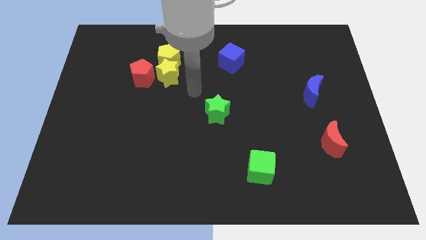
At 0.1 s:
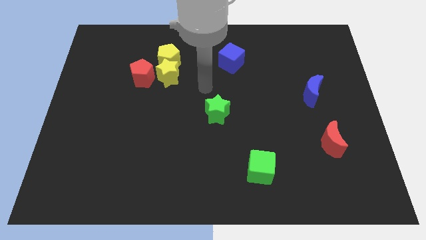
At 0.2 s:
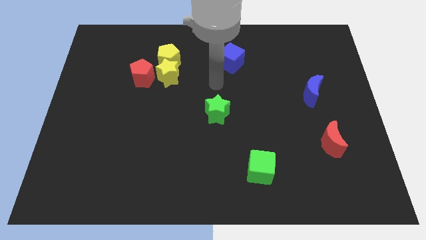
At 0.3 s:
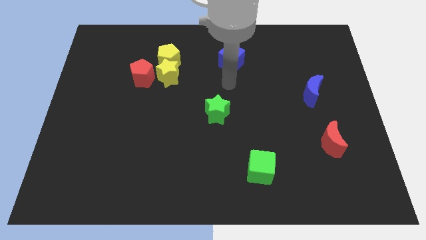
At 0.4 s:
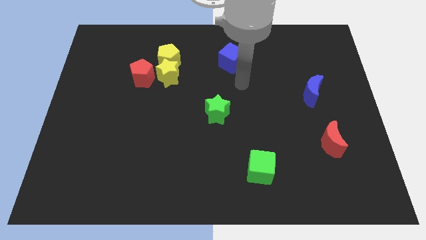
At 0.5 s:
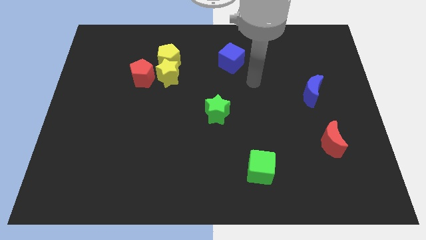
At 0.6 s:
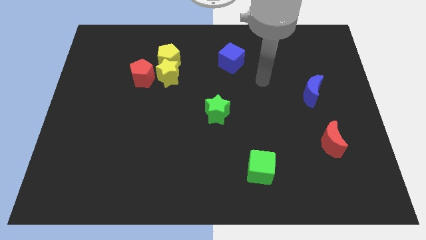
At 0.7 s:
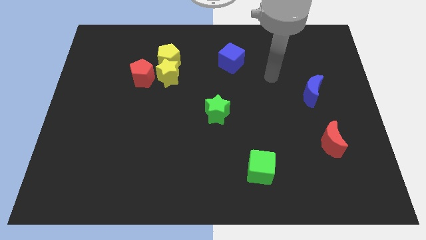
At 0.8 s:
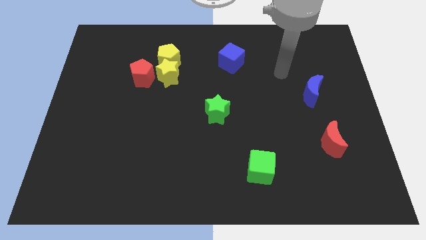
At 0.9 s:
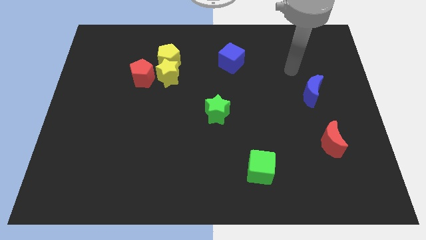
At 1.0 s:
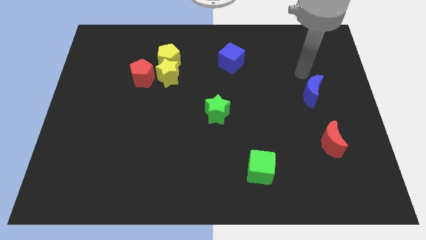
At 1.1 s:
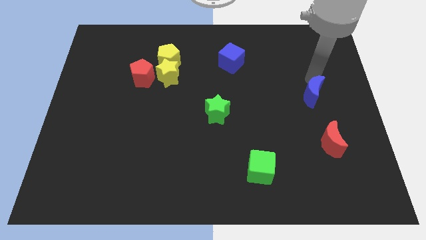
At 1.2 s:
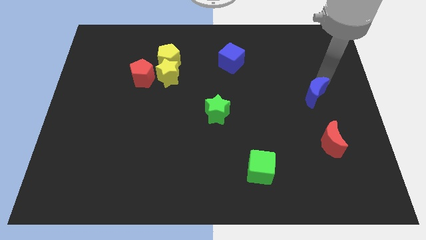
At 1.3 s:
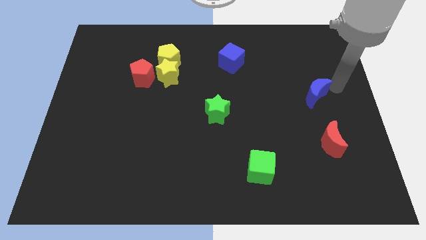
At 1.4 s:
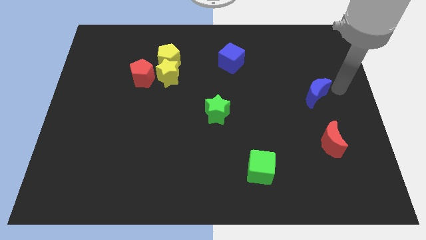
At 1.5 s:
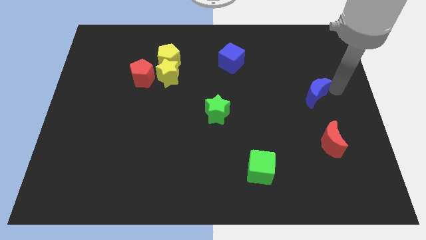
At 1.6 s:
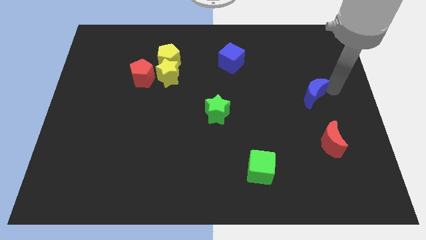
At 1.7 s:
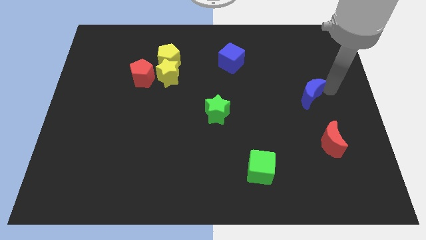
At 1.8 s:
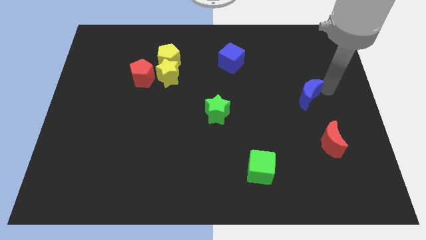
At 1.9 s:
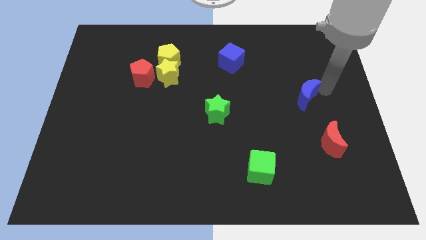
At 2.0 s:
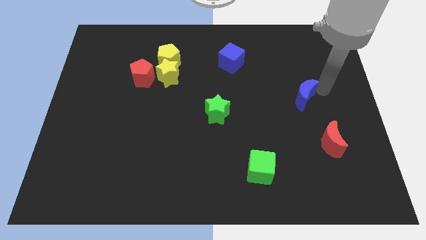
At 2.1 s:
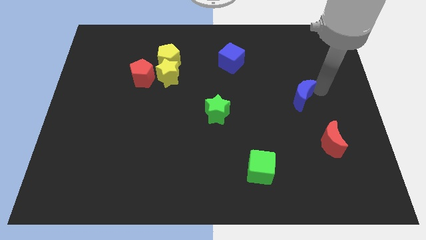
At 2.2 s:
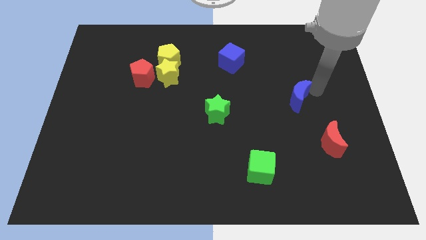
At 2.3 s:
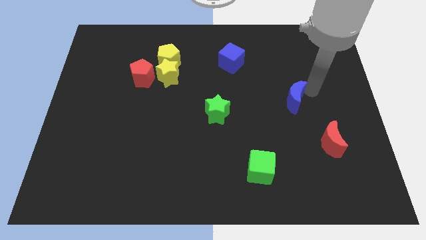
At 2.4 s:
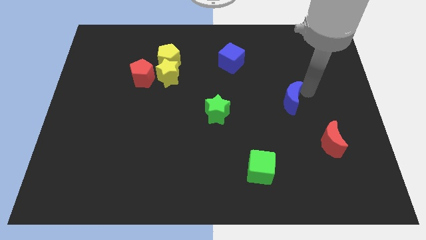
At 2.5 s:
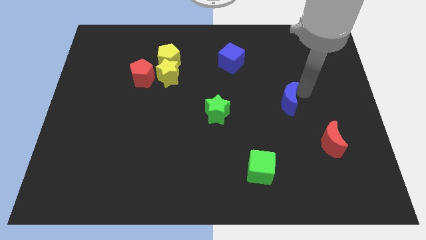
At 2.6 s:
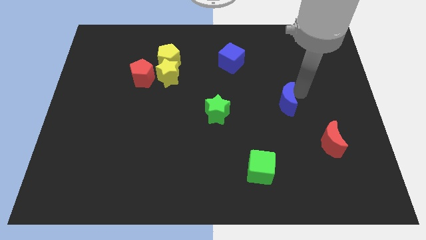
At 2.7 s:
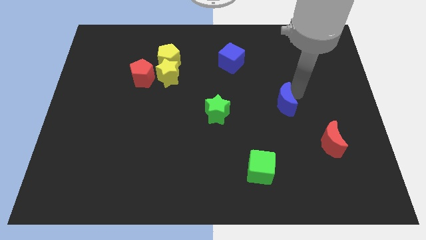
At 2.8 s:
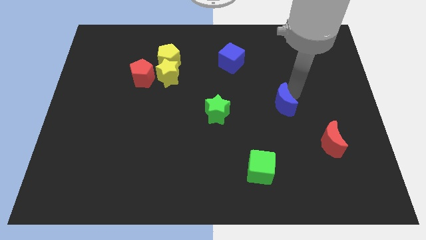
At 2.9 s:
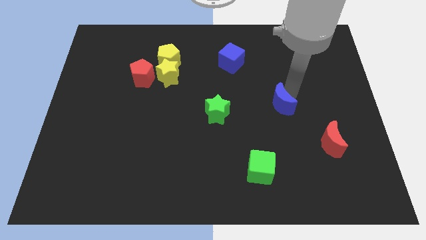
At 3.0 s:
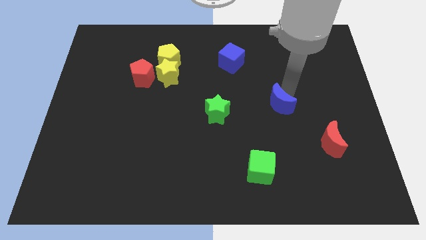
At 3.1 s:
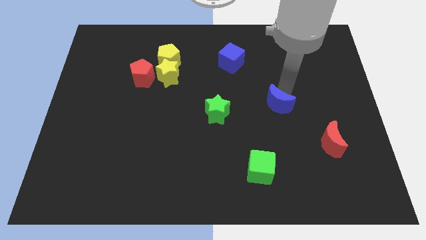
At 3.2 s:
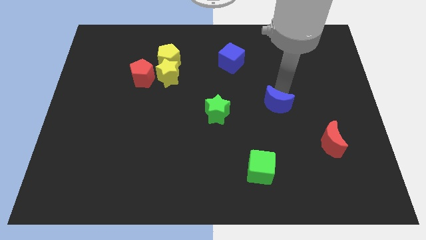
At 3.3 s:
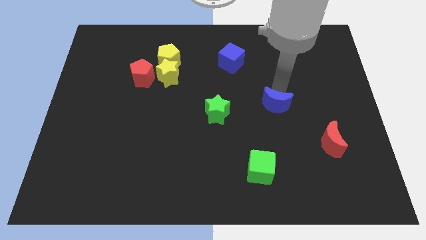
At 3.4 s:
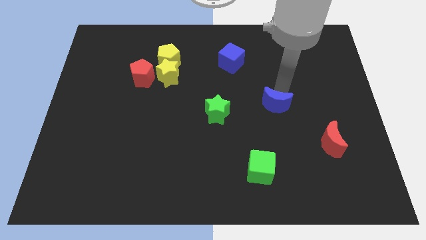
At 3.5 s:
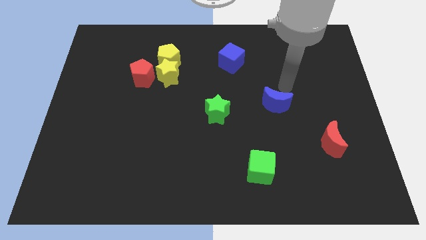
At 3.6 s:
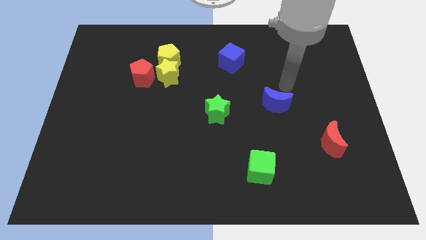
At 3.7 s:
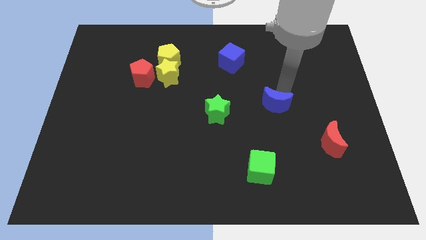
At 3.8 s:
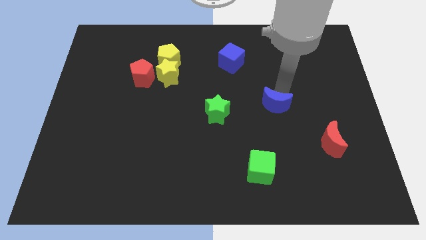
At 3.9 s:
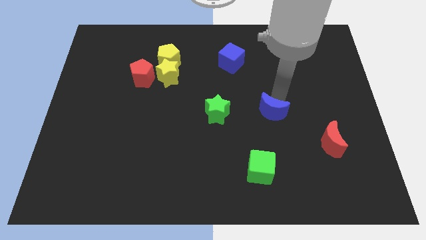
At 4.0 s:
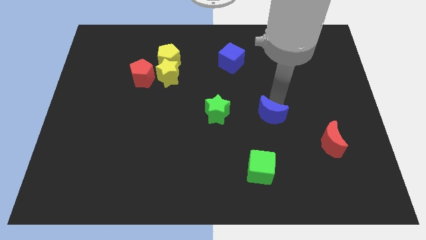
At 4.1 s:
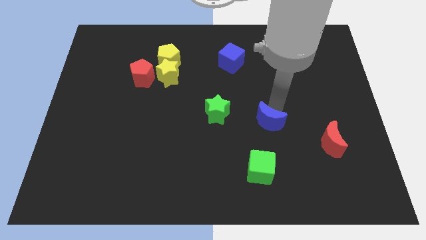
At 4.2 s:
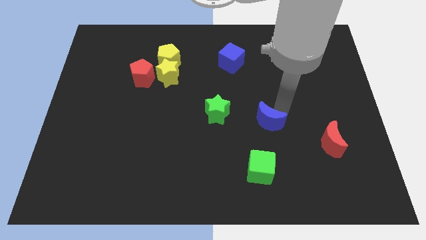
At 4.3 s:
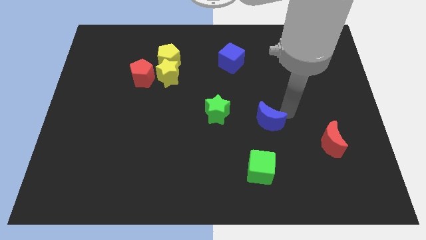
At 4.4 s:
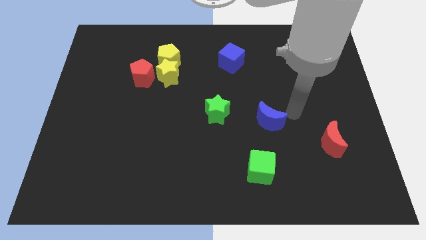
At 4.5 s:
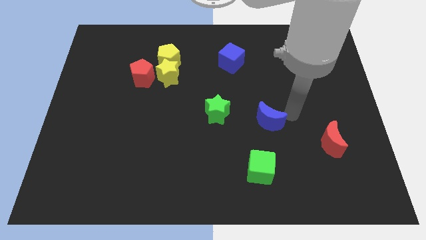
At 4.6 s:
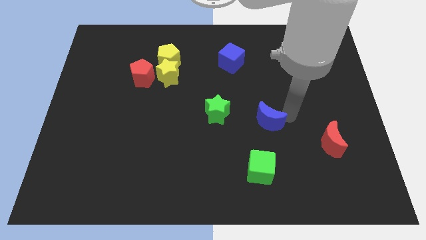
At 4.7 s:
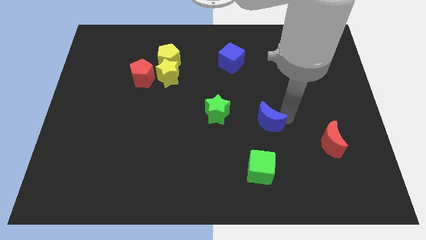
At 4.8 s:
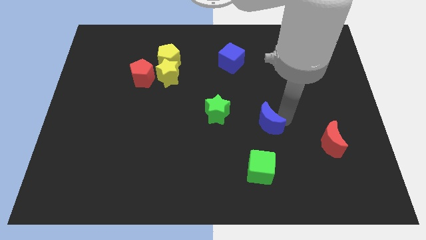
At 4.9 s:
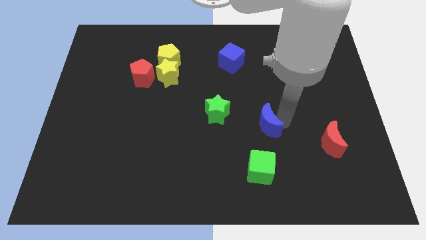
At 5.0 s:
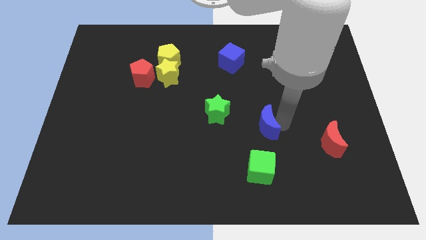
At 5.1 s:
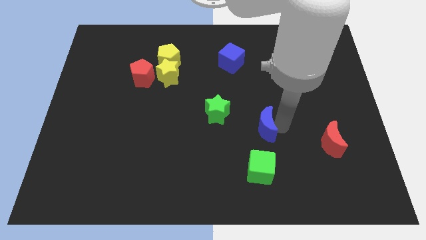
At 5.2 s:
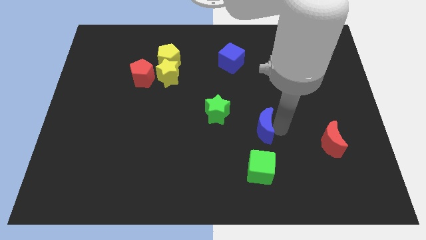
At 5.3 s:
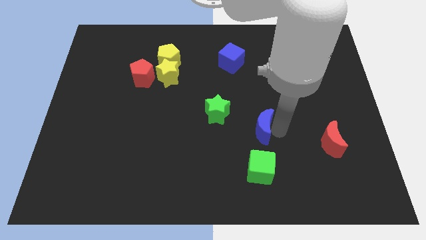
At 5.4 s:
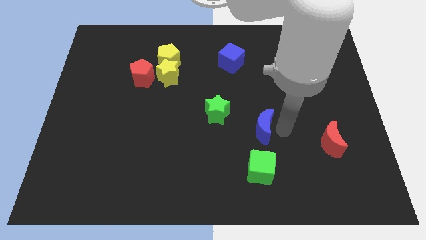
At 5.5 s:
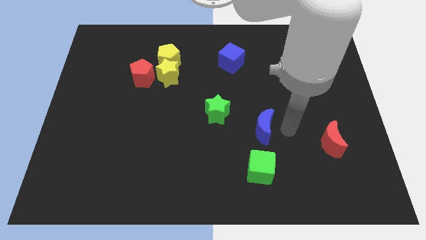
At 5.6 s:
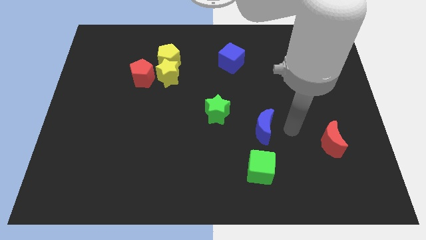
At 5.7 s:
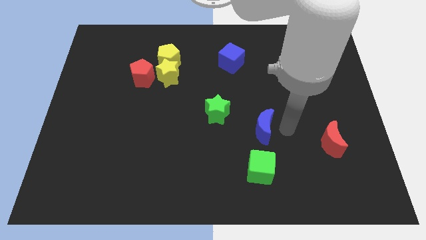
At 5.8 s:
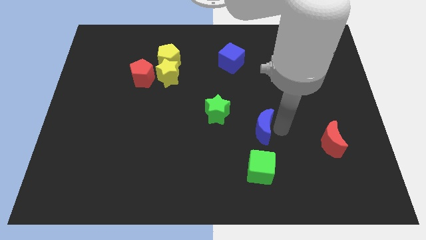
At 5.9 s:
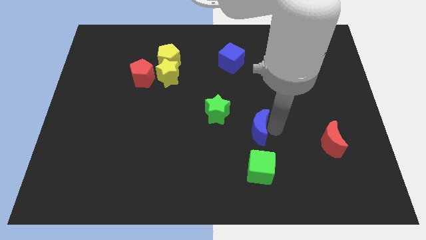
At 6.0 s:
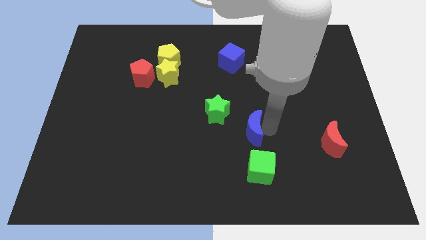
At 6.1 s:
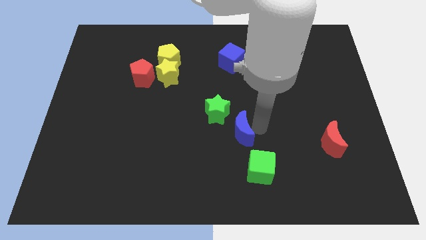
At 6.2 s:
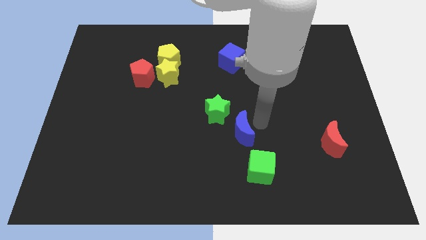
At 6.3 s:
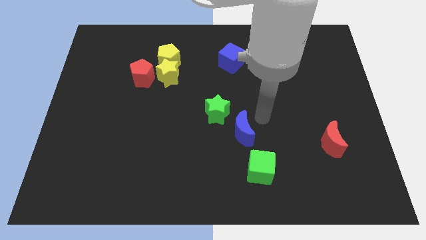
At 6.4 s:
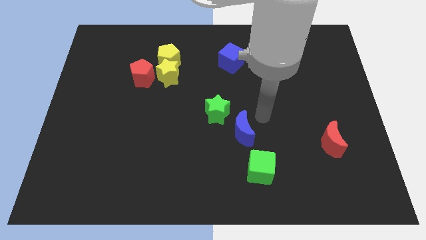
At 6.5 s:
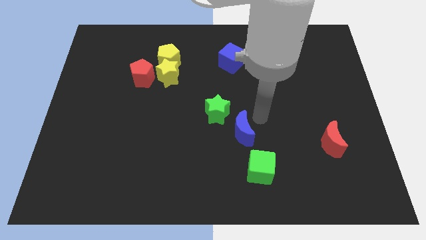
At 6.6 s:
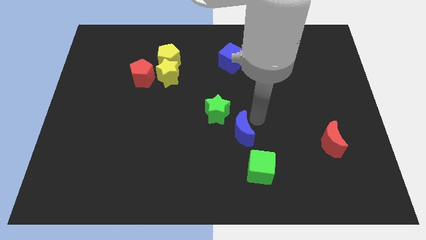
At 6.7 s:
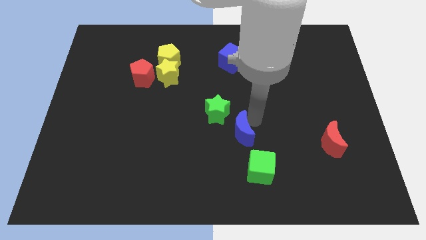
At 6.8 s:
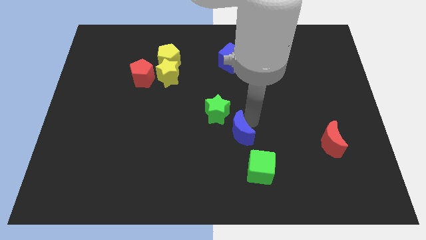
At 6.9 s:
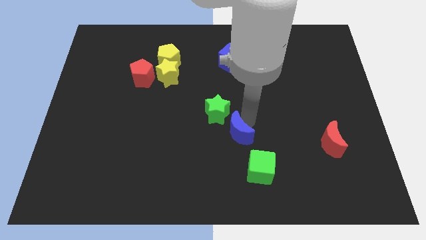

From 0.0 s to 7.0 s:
put the blue moon below the green star
